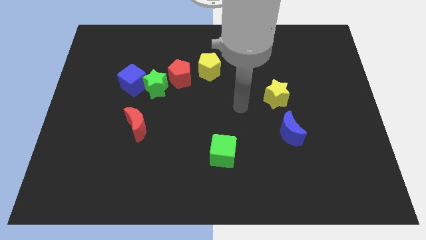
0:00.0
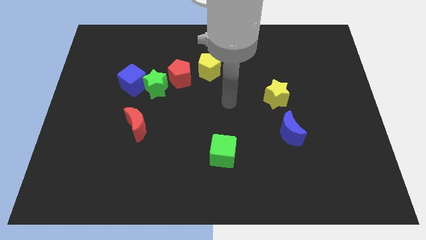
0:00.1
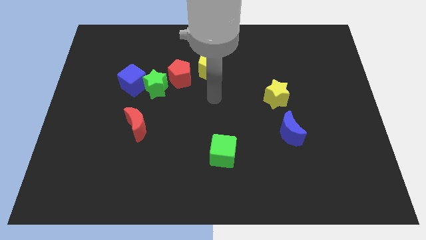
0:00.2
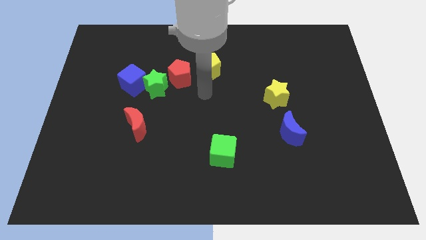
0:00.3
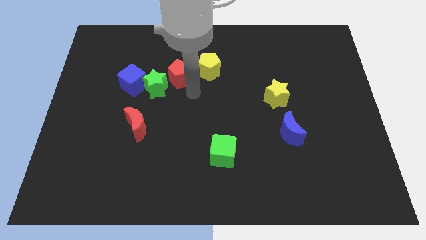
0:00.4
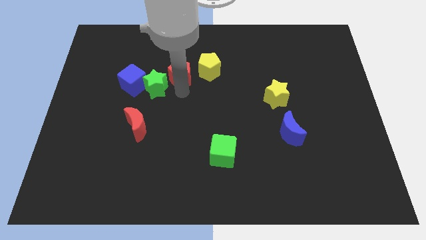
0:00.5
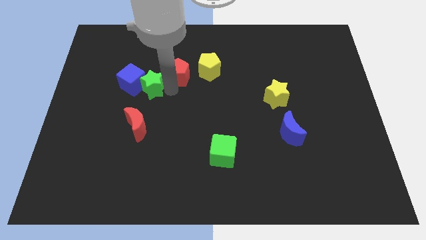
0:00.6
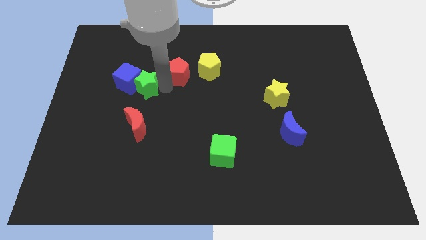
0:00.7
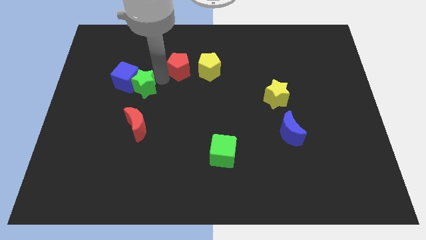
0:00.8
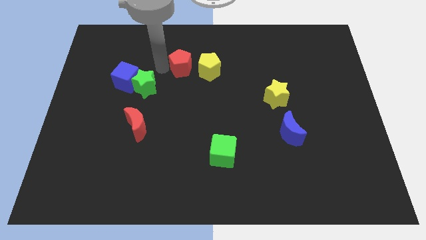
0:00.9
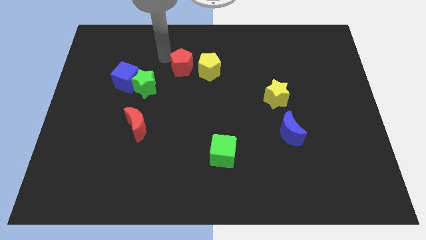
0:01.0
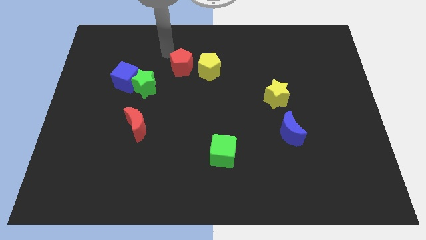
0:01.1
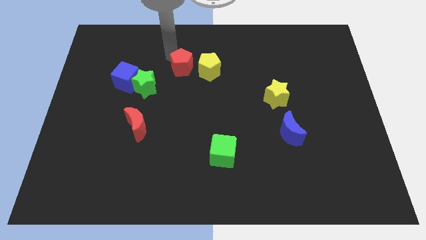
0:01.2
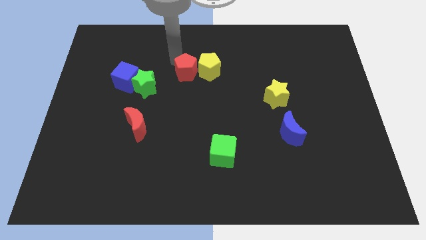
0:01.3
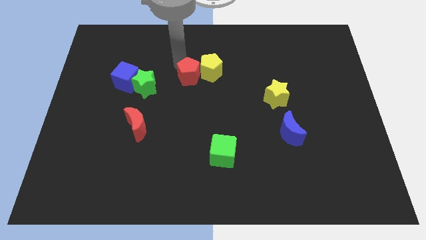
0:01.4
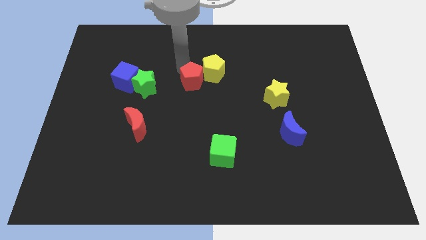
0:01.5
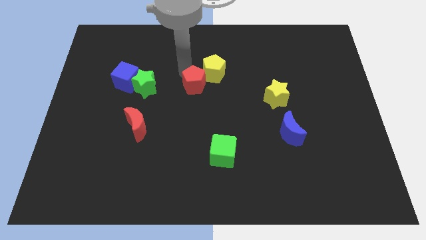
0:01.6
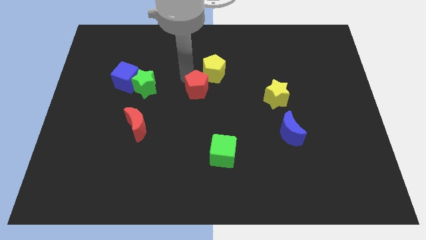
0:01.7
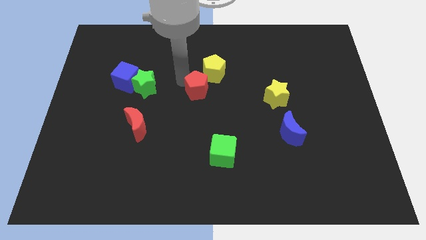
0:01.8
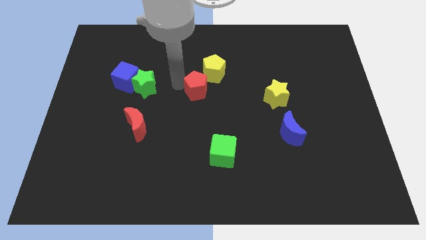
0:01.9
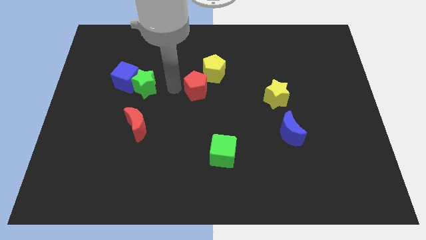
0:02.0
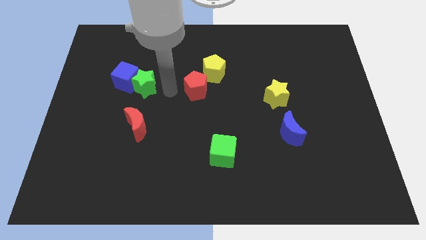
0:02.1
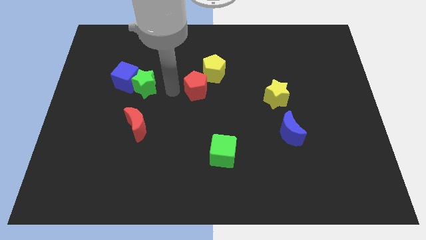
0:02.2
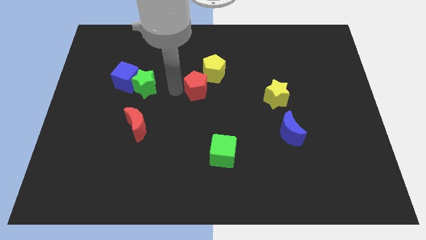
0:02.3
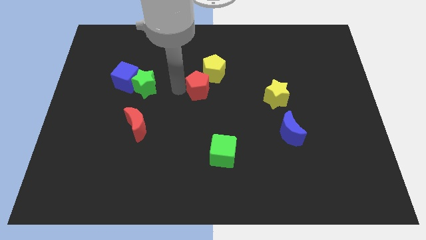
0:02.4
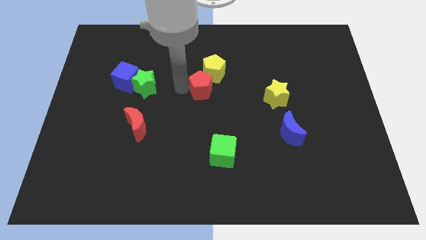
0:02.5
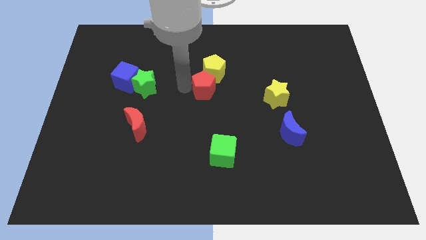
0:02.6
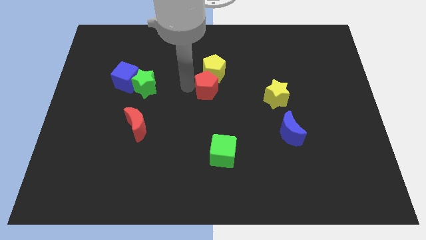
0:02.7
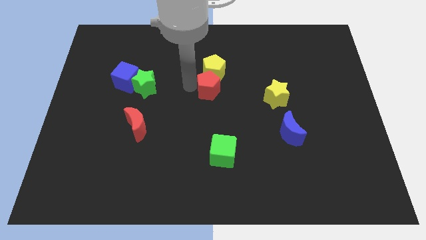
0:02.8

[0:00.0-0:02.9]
slightly slide the red pentagon to the right

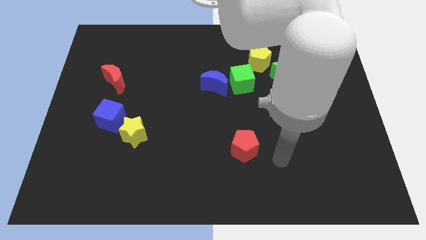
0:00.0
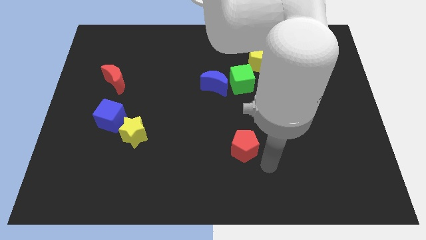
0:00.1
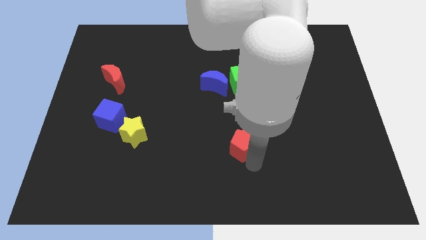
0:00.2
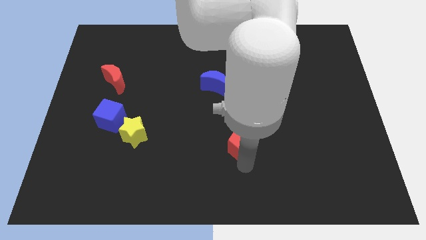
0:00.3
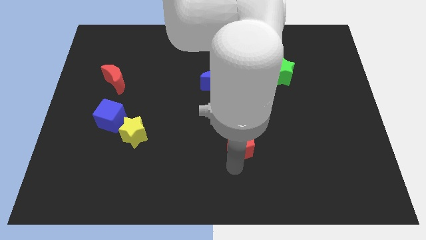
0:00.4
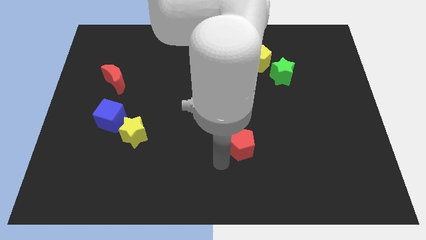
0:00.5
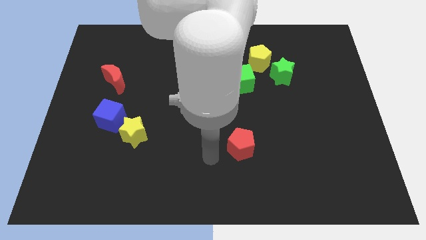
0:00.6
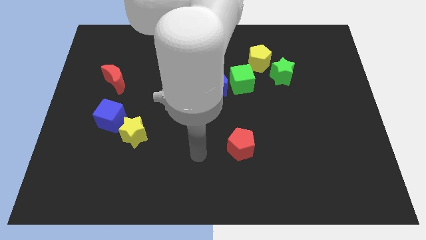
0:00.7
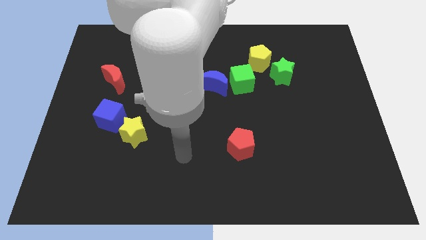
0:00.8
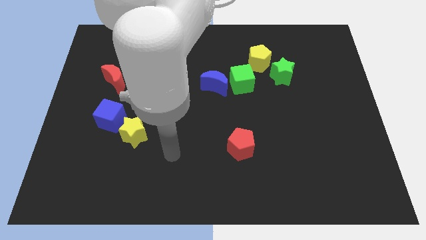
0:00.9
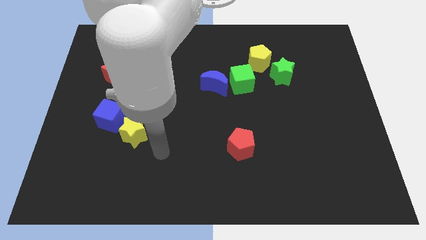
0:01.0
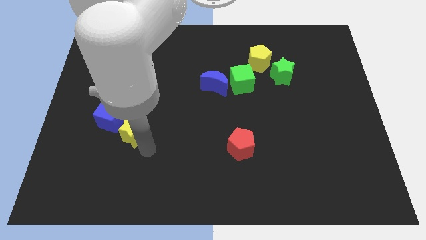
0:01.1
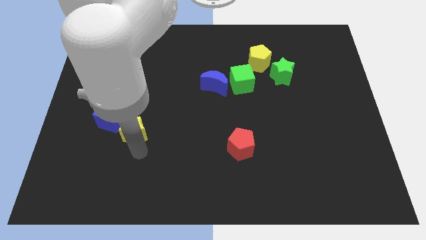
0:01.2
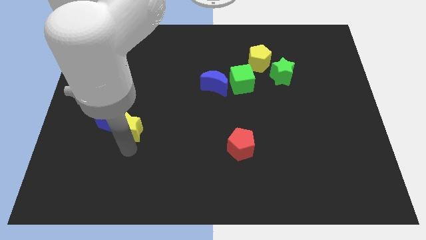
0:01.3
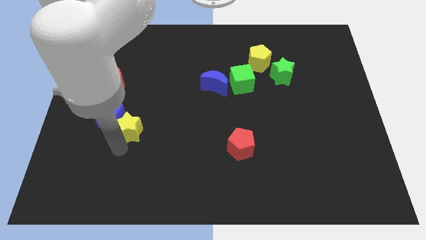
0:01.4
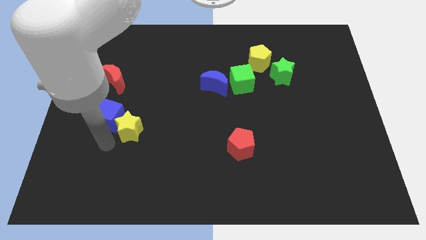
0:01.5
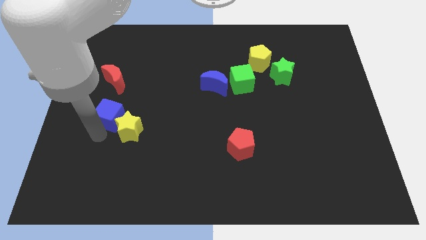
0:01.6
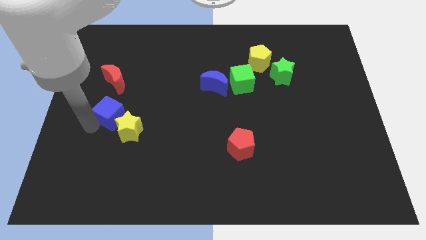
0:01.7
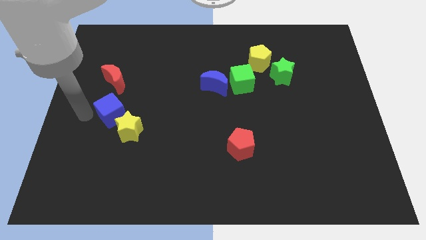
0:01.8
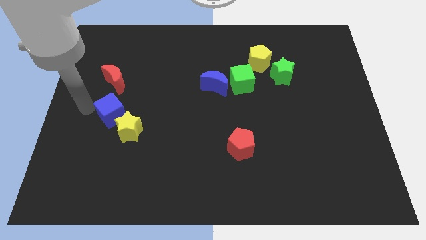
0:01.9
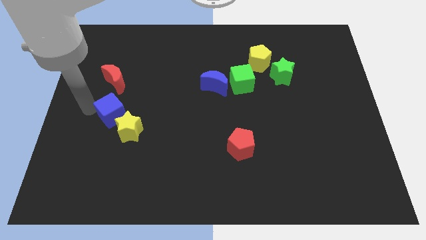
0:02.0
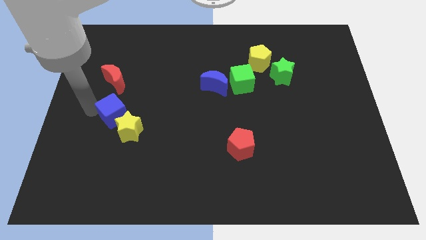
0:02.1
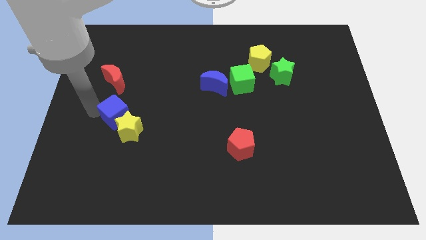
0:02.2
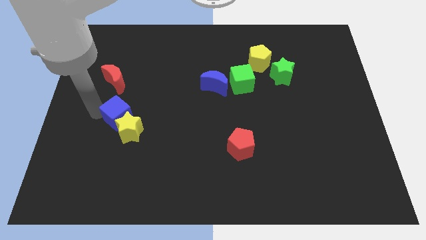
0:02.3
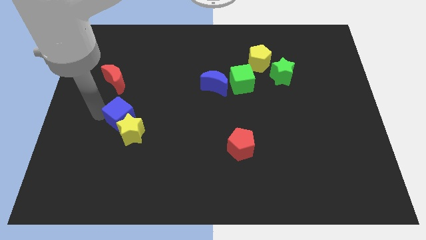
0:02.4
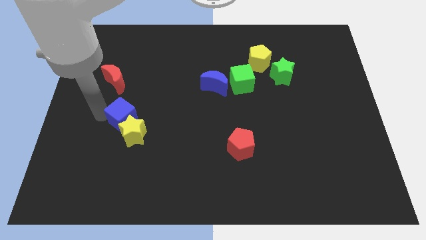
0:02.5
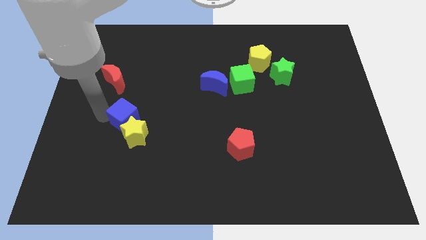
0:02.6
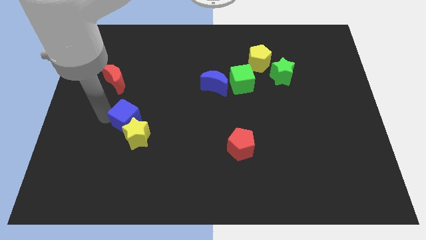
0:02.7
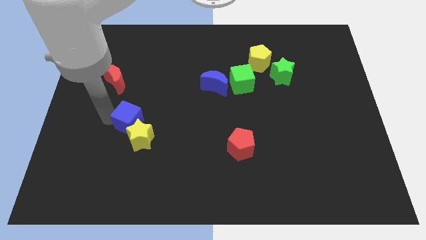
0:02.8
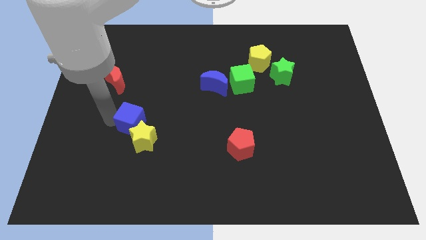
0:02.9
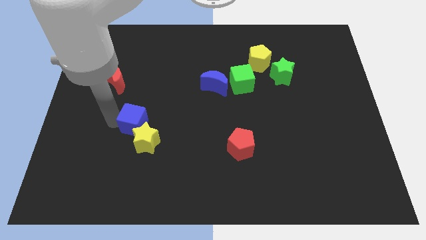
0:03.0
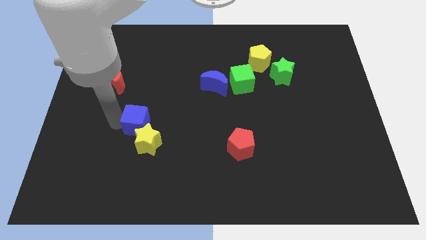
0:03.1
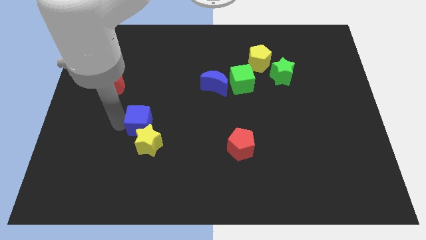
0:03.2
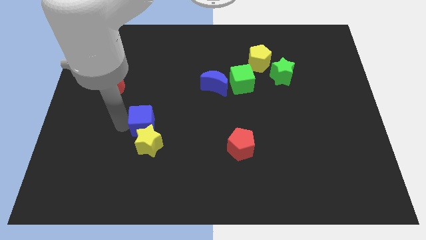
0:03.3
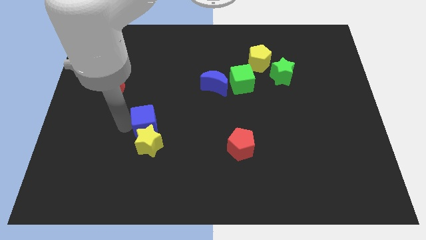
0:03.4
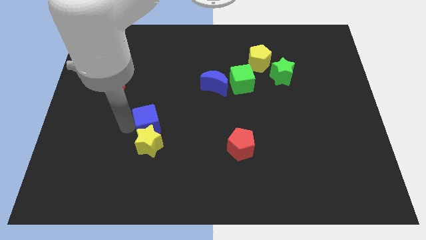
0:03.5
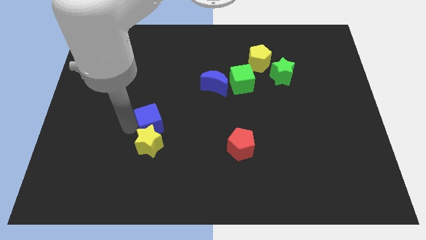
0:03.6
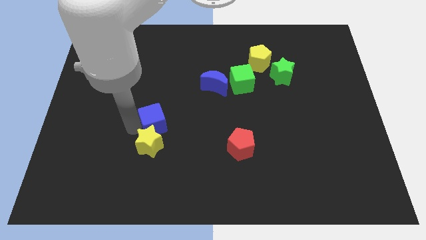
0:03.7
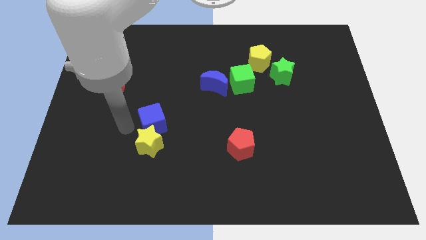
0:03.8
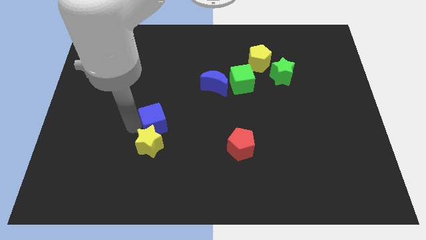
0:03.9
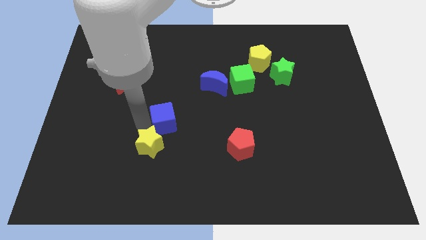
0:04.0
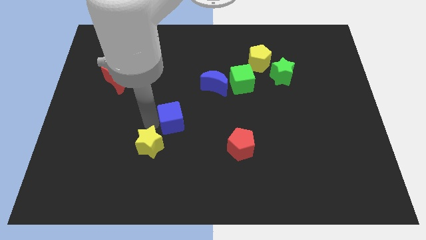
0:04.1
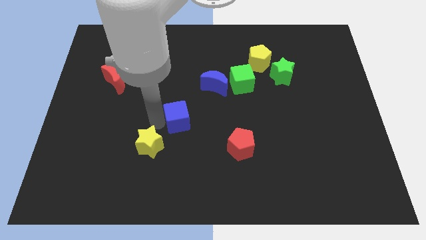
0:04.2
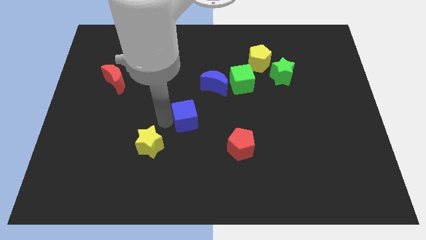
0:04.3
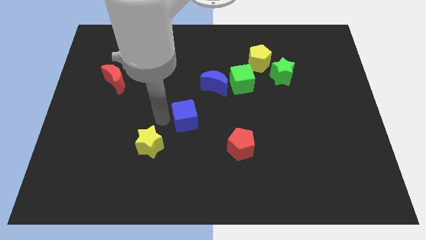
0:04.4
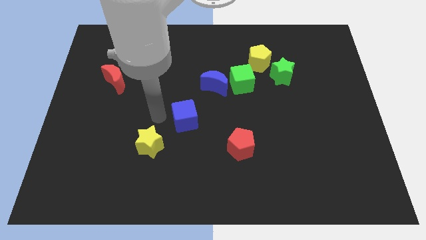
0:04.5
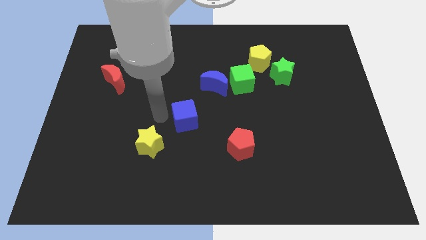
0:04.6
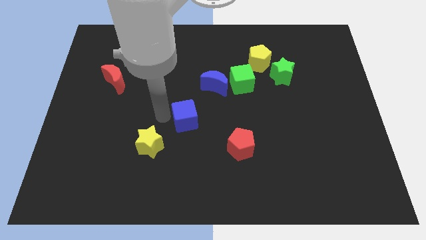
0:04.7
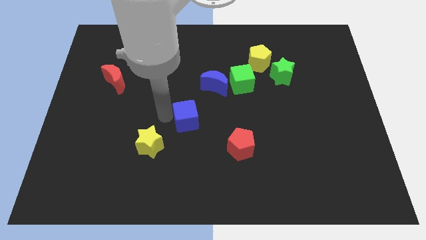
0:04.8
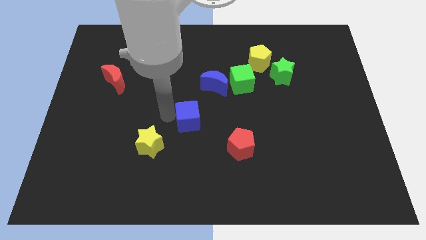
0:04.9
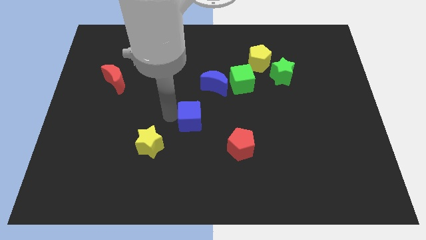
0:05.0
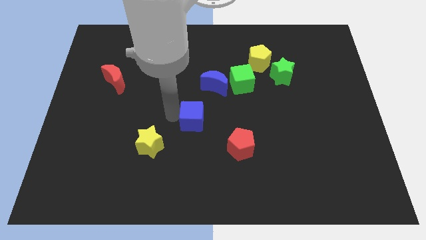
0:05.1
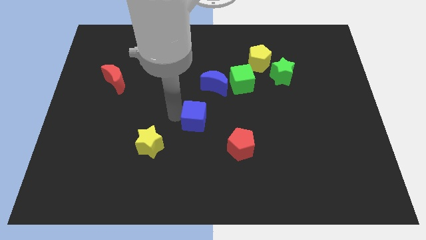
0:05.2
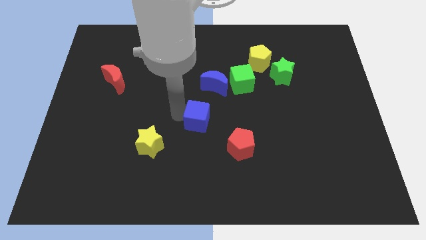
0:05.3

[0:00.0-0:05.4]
slide the blue cube to the right
